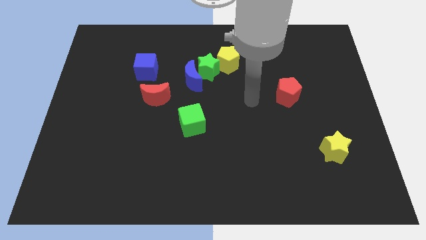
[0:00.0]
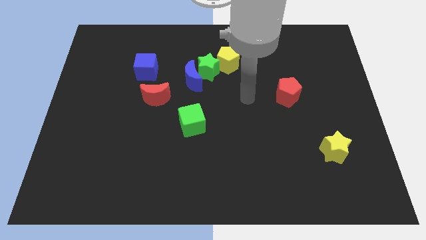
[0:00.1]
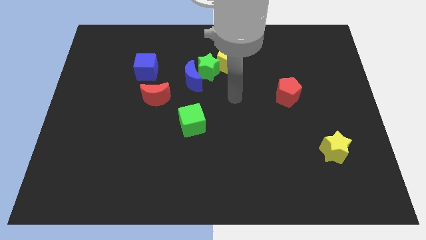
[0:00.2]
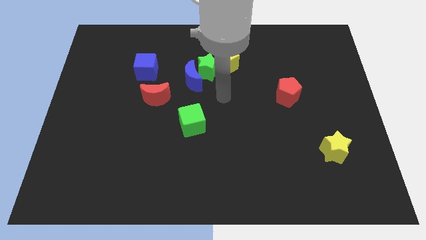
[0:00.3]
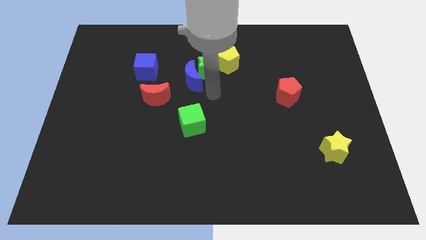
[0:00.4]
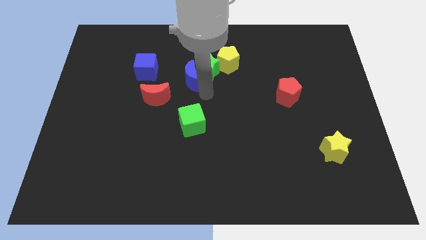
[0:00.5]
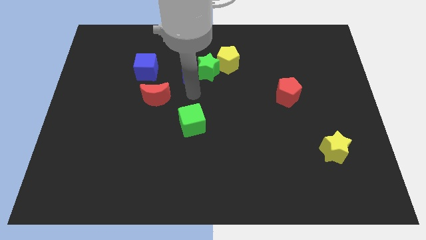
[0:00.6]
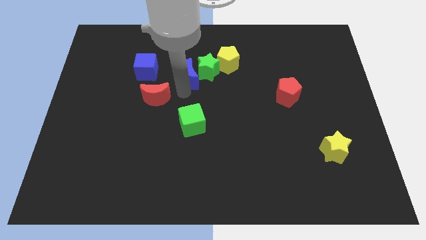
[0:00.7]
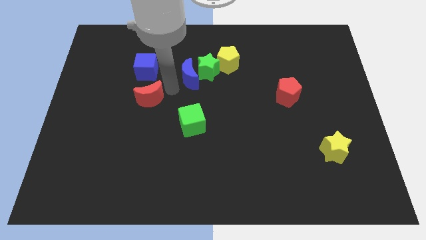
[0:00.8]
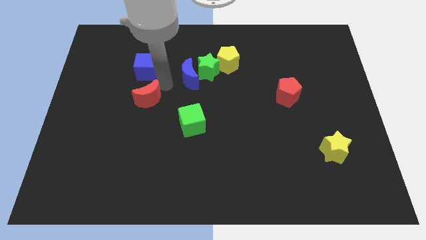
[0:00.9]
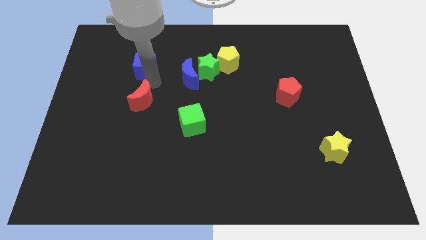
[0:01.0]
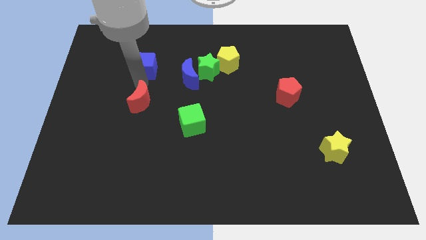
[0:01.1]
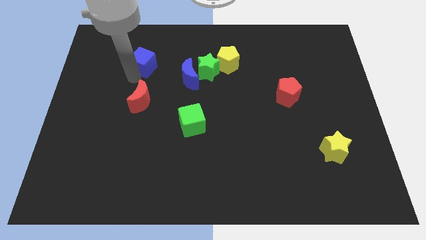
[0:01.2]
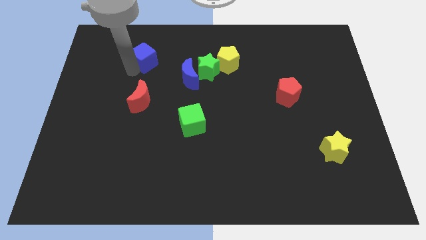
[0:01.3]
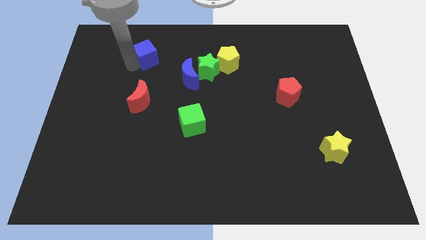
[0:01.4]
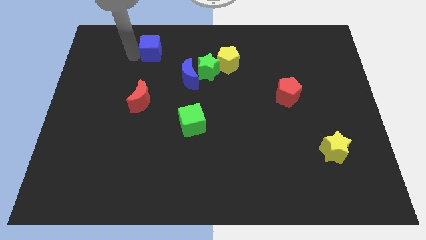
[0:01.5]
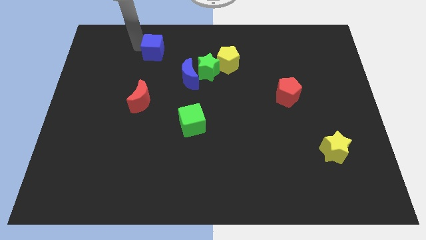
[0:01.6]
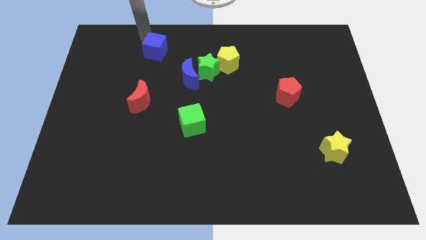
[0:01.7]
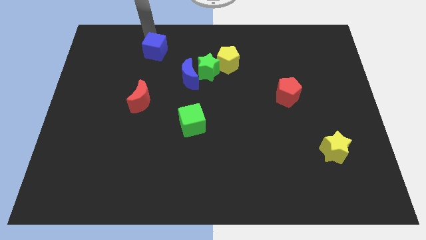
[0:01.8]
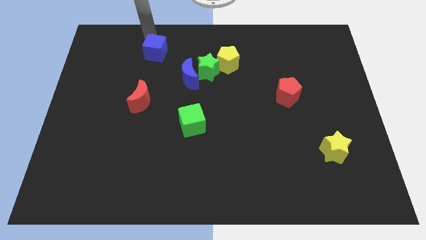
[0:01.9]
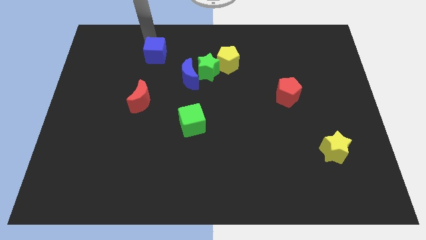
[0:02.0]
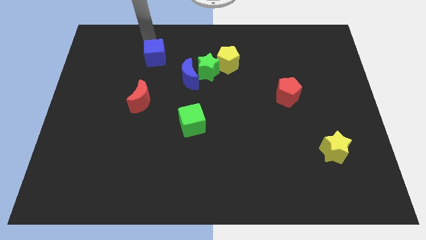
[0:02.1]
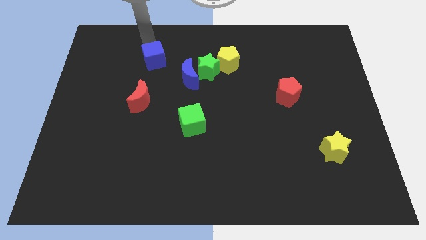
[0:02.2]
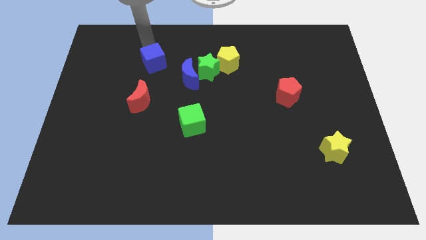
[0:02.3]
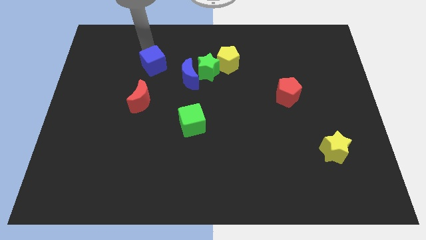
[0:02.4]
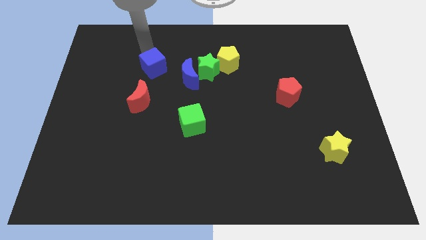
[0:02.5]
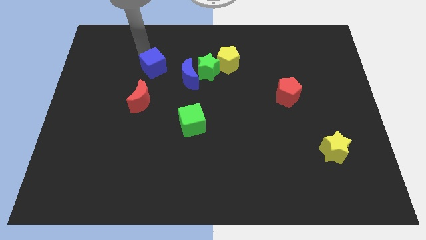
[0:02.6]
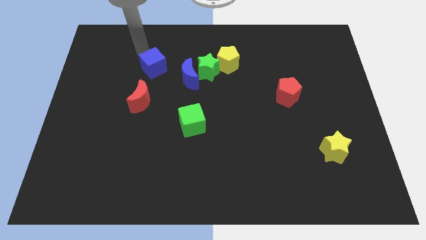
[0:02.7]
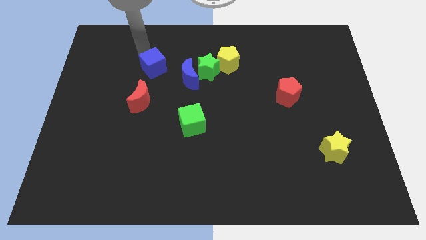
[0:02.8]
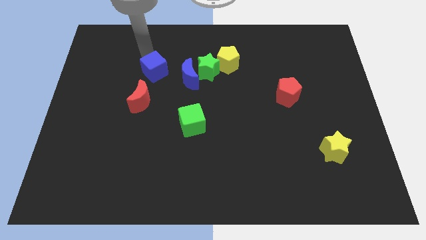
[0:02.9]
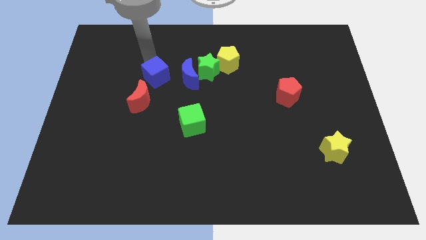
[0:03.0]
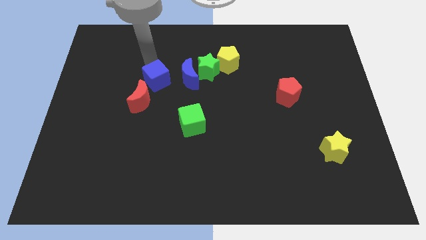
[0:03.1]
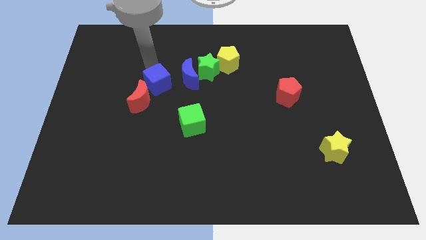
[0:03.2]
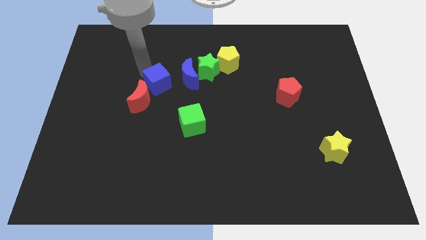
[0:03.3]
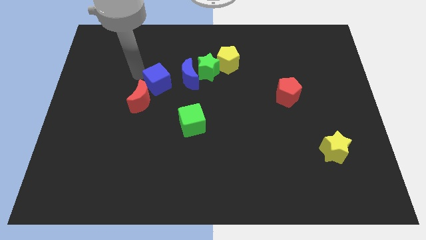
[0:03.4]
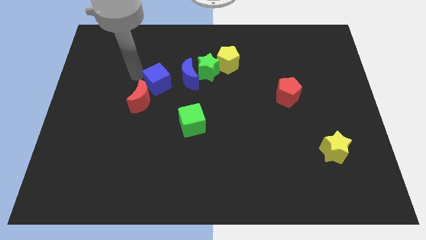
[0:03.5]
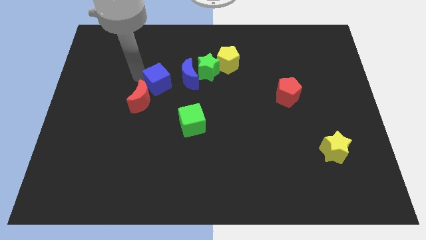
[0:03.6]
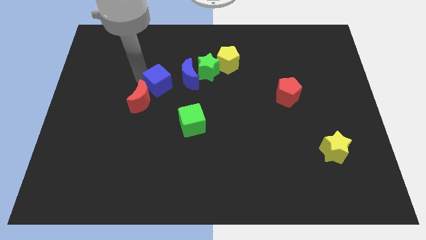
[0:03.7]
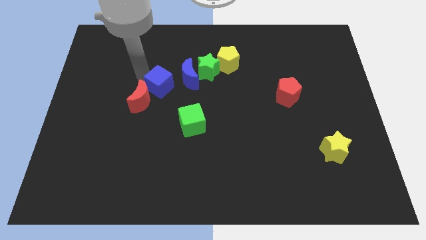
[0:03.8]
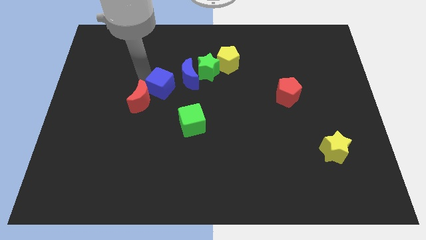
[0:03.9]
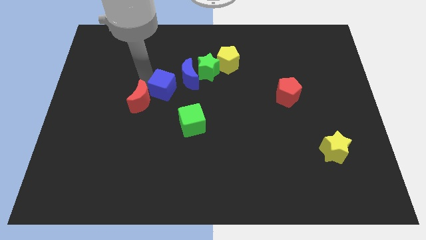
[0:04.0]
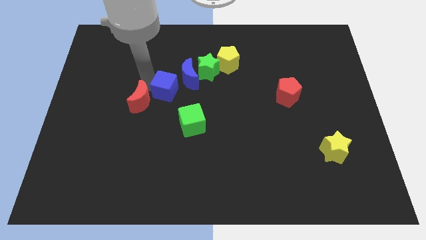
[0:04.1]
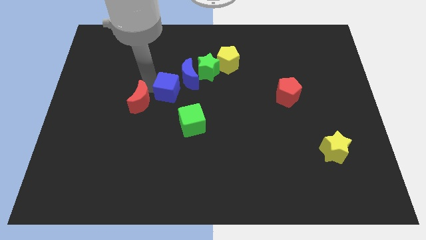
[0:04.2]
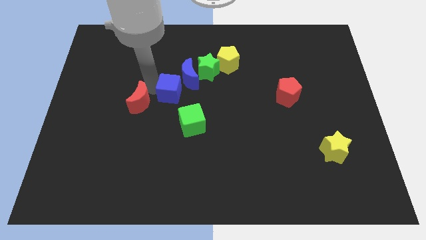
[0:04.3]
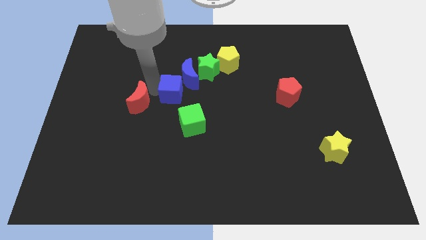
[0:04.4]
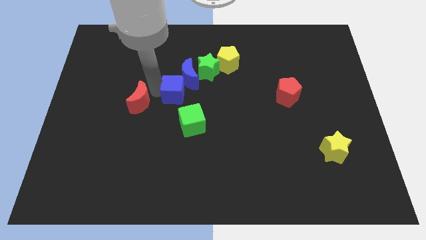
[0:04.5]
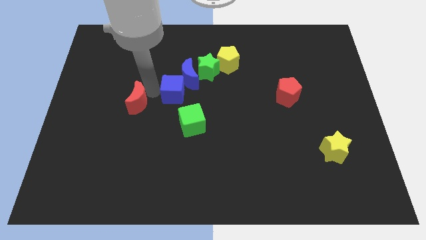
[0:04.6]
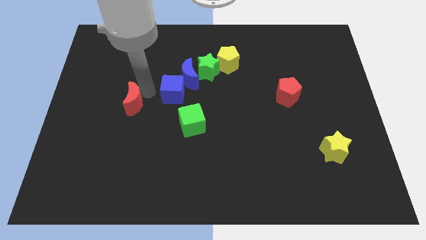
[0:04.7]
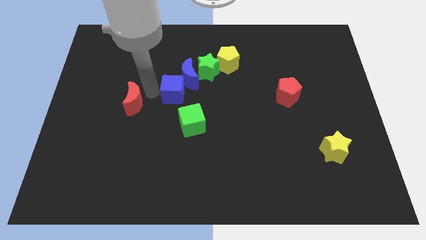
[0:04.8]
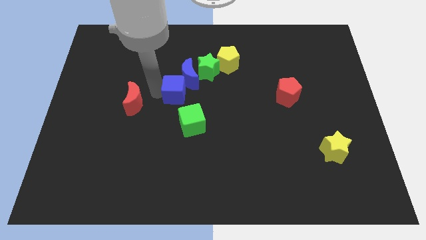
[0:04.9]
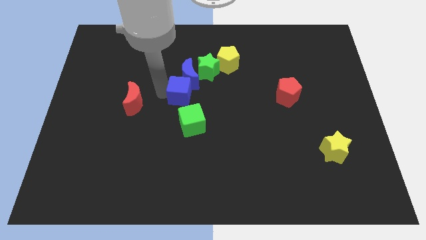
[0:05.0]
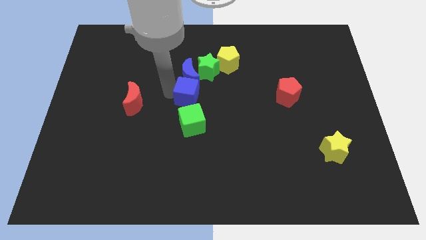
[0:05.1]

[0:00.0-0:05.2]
move the blue cube to the bottom of the green star

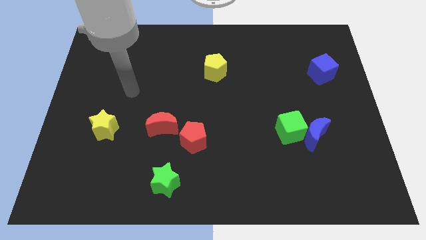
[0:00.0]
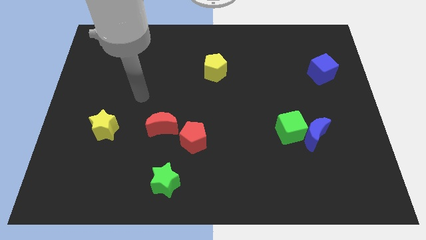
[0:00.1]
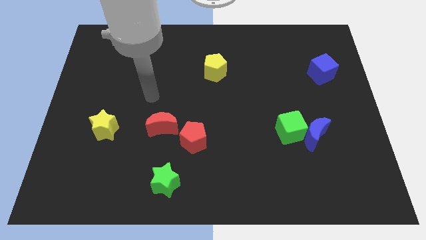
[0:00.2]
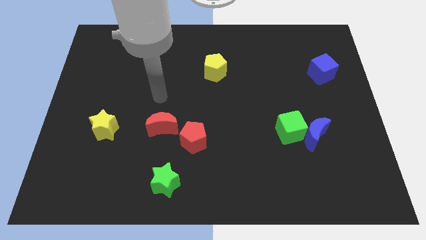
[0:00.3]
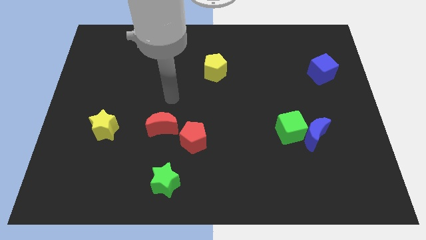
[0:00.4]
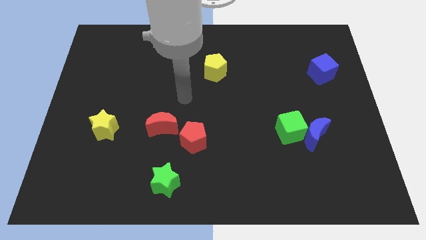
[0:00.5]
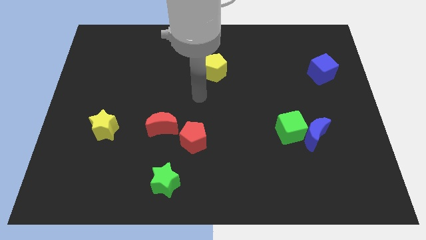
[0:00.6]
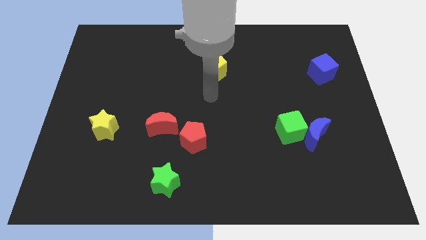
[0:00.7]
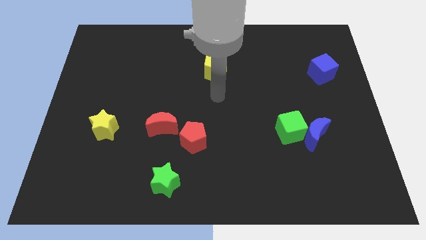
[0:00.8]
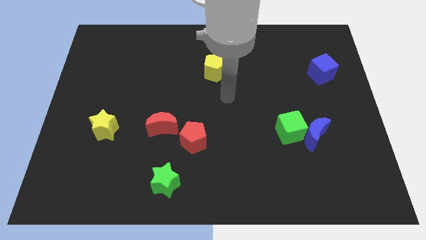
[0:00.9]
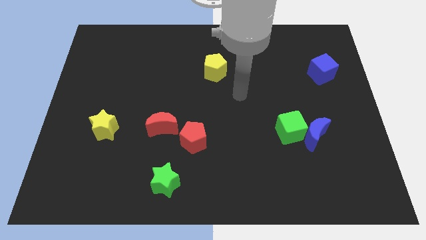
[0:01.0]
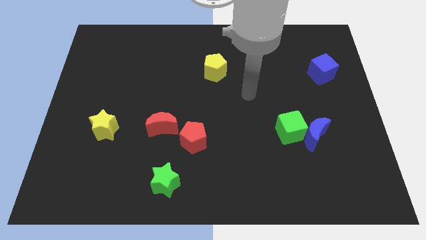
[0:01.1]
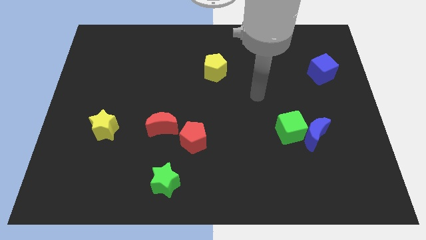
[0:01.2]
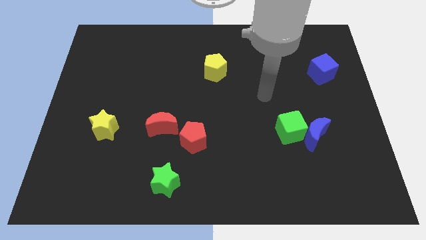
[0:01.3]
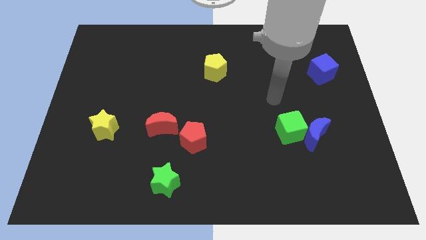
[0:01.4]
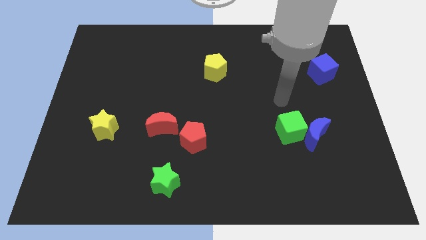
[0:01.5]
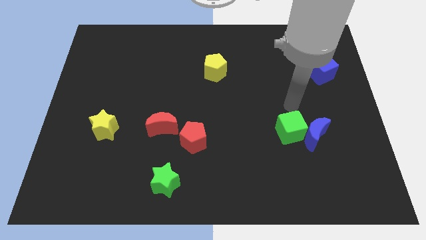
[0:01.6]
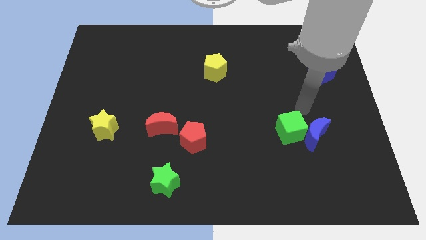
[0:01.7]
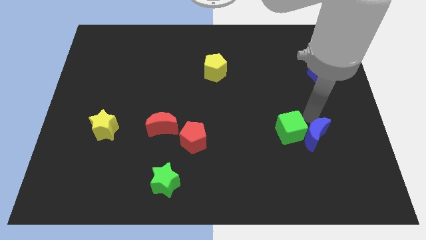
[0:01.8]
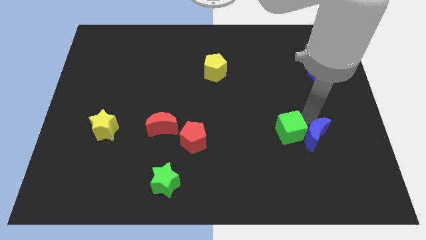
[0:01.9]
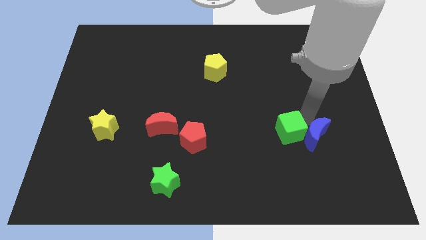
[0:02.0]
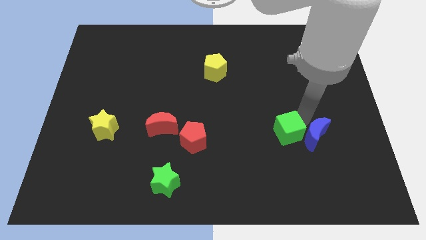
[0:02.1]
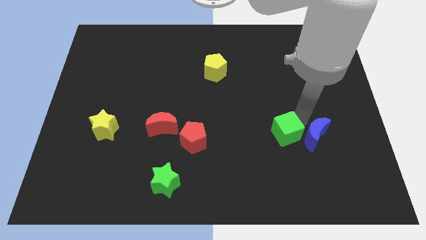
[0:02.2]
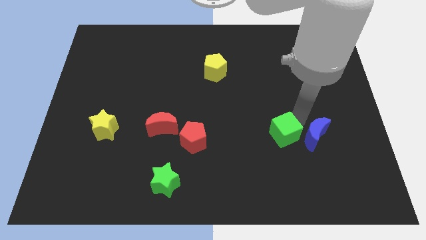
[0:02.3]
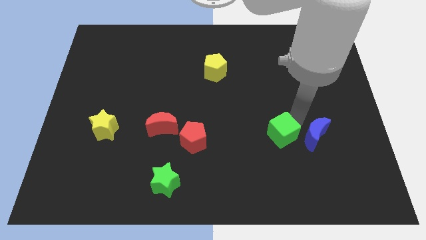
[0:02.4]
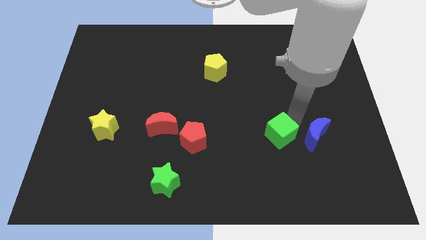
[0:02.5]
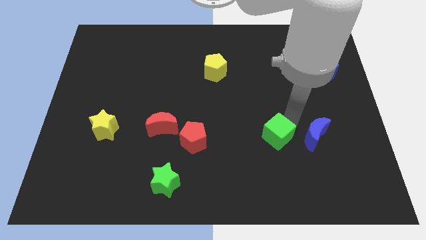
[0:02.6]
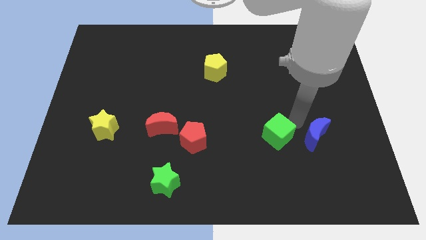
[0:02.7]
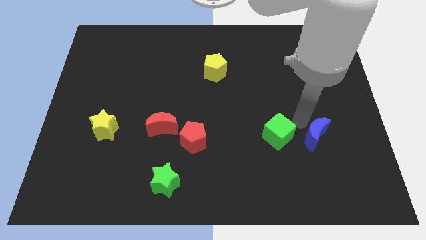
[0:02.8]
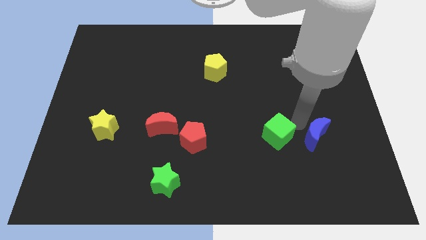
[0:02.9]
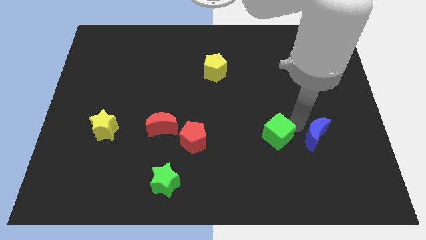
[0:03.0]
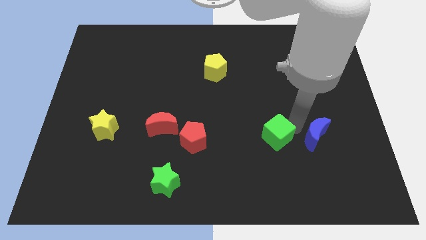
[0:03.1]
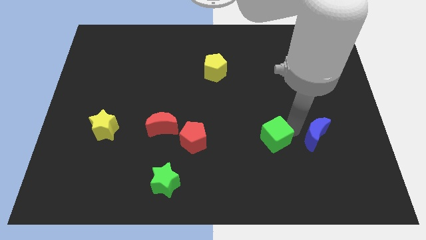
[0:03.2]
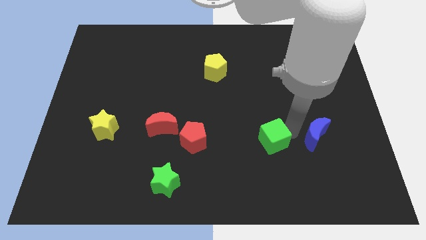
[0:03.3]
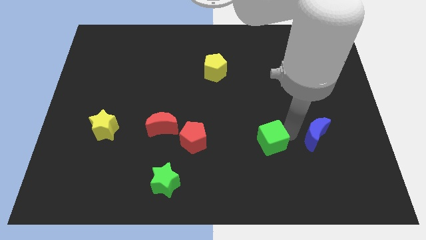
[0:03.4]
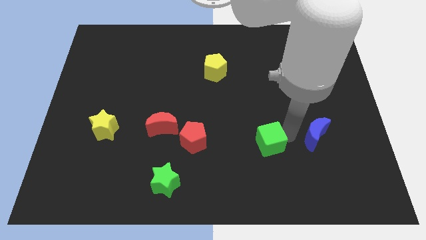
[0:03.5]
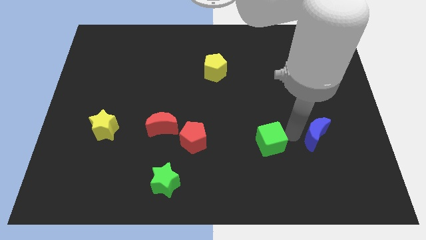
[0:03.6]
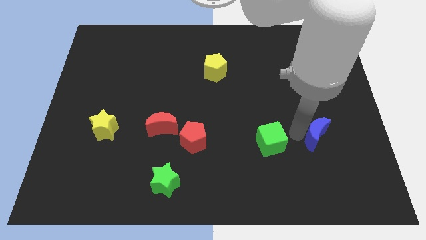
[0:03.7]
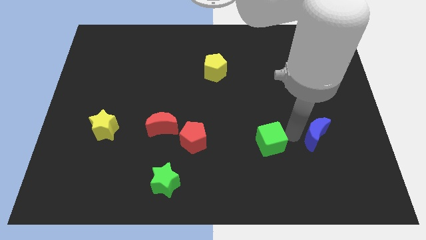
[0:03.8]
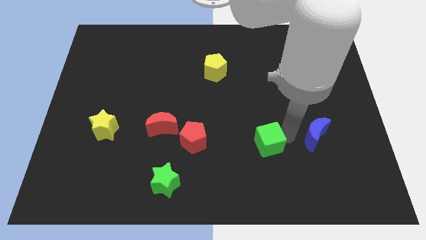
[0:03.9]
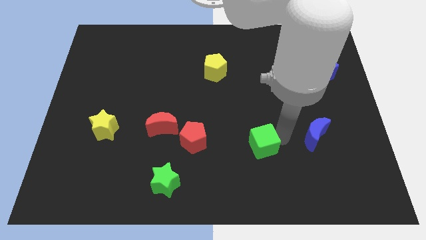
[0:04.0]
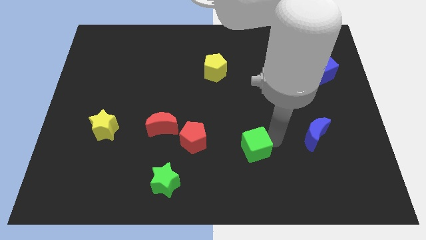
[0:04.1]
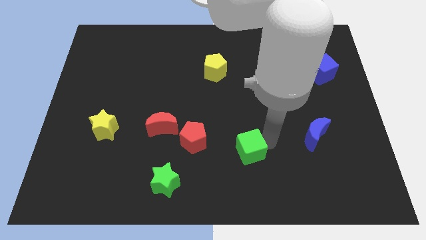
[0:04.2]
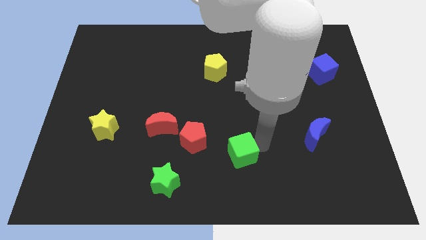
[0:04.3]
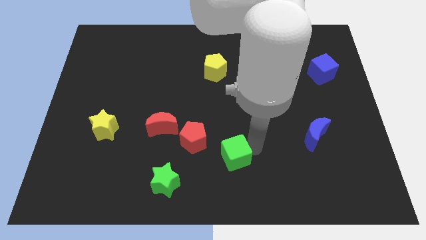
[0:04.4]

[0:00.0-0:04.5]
move the green cube diagonally down and to the right of the red pentagon
